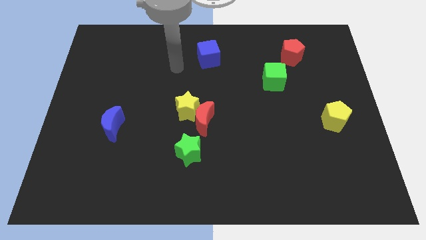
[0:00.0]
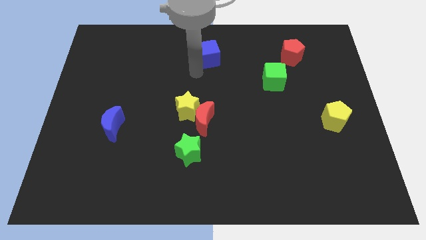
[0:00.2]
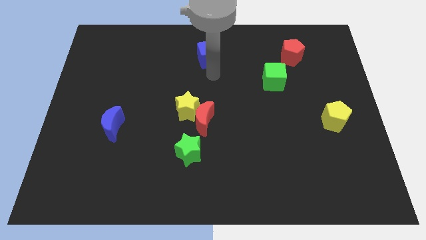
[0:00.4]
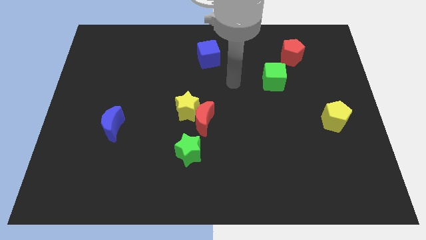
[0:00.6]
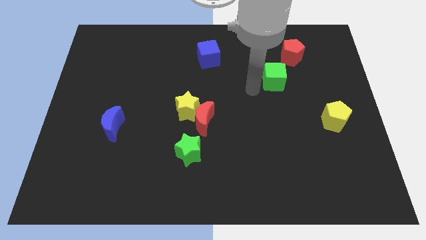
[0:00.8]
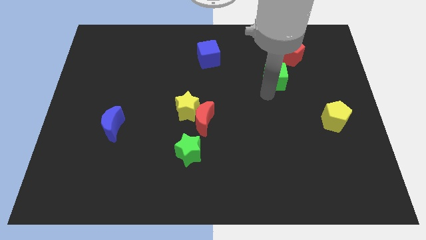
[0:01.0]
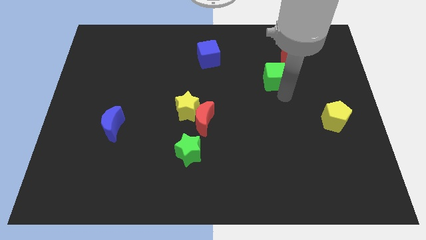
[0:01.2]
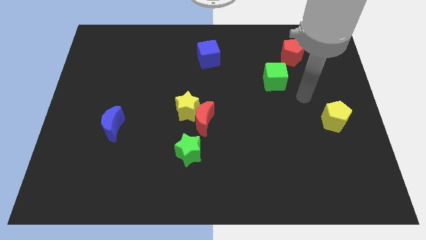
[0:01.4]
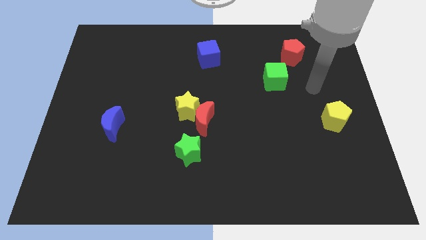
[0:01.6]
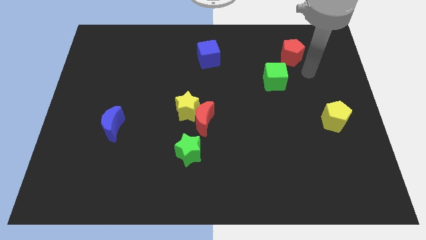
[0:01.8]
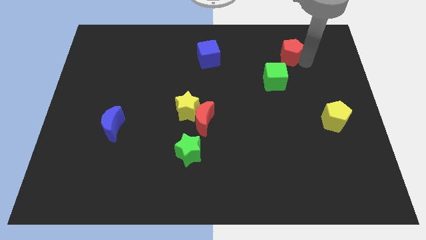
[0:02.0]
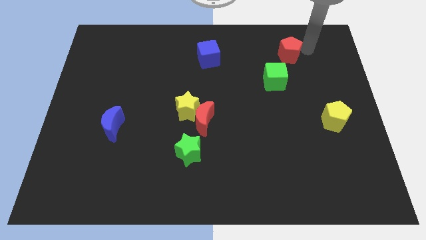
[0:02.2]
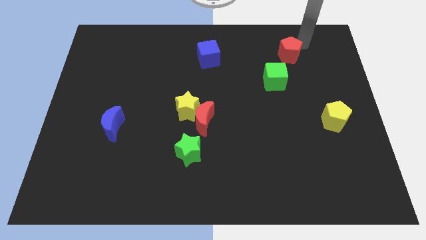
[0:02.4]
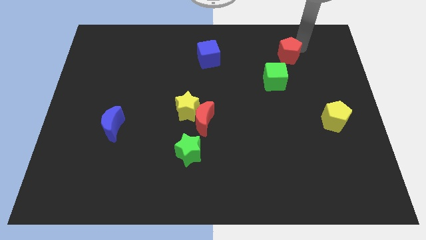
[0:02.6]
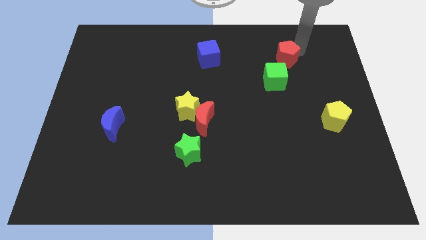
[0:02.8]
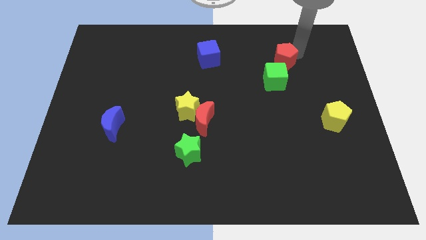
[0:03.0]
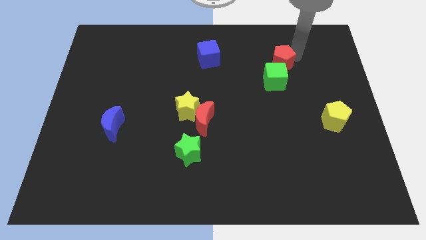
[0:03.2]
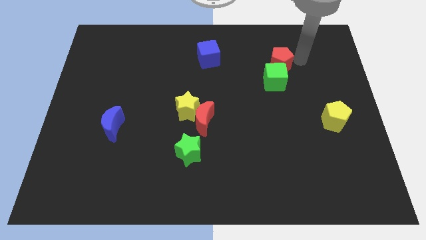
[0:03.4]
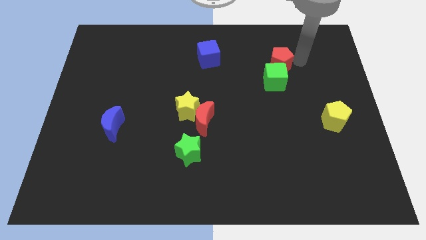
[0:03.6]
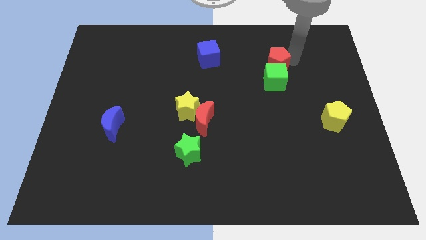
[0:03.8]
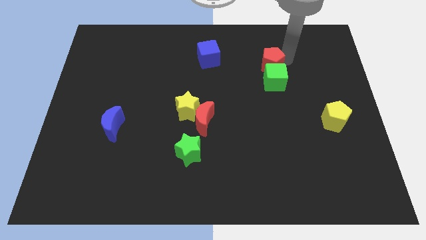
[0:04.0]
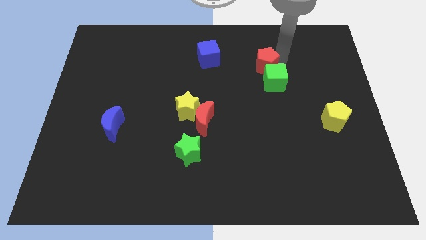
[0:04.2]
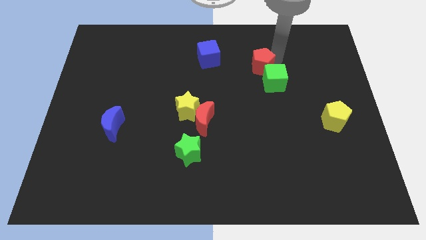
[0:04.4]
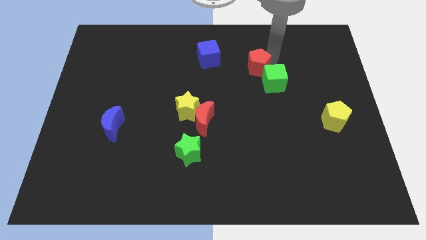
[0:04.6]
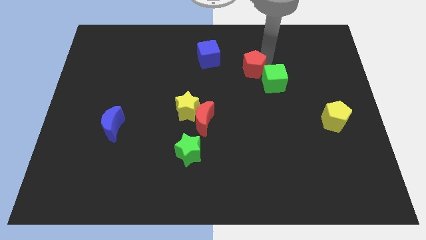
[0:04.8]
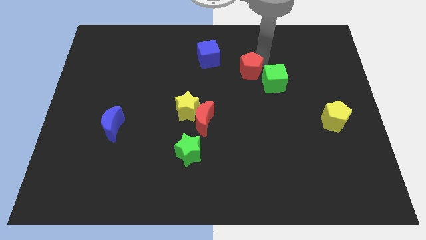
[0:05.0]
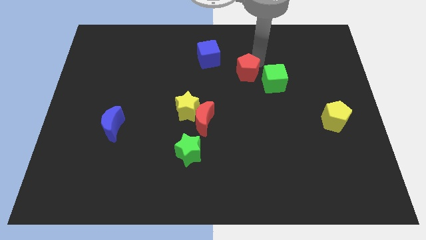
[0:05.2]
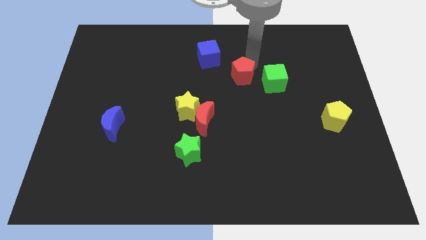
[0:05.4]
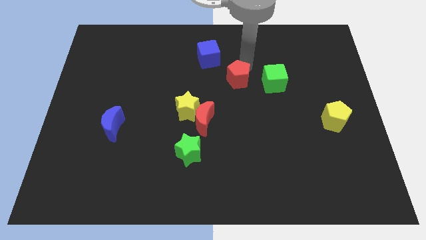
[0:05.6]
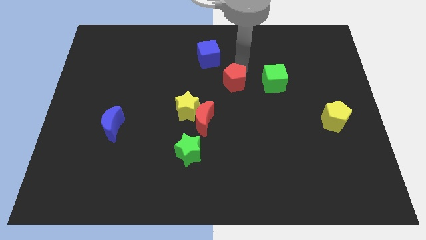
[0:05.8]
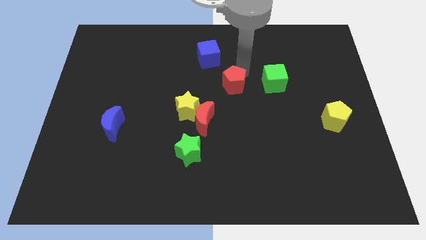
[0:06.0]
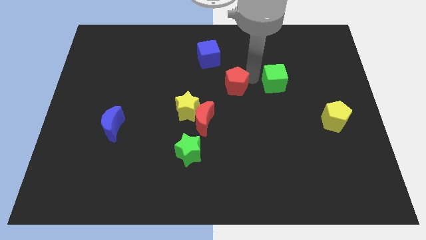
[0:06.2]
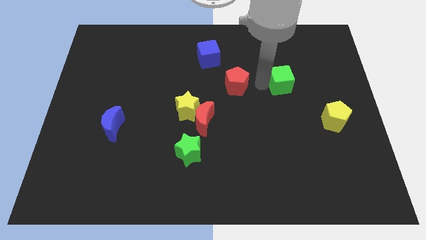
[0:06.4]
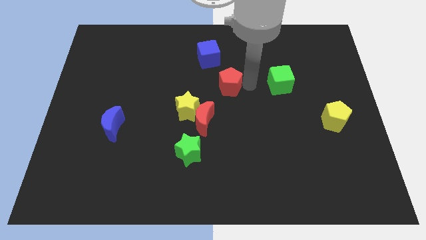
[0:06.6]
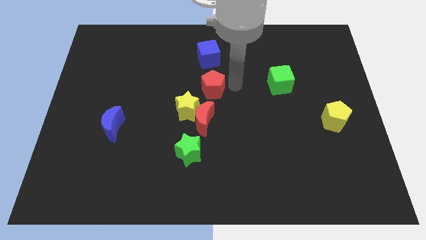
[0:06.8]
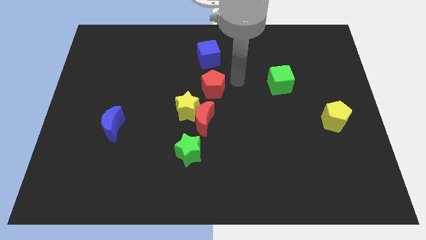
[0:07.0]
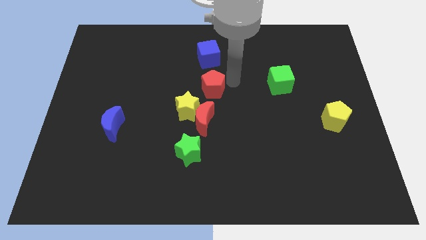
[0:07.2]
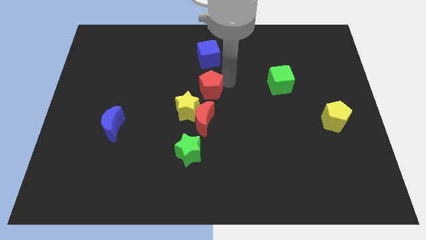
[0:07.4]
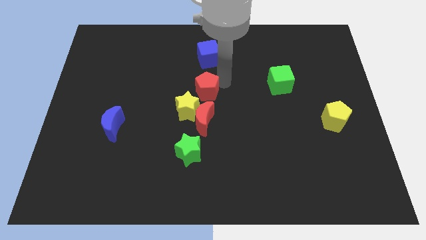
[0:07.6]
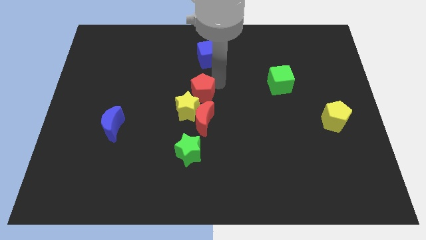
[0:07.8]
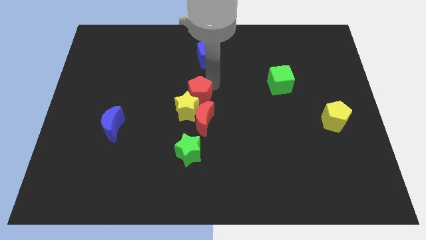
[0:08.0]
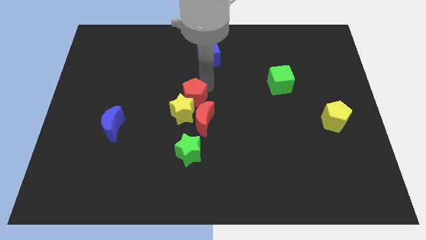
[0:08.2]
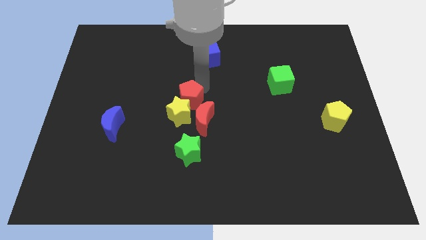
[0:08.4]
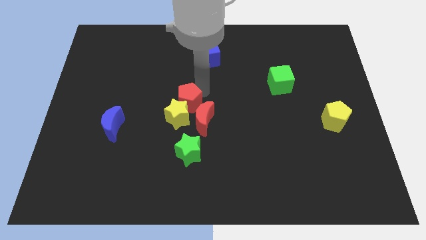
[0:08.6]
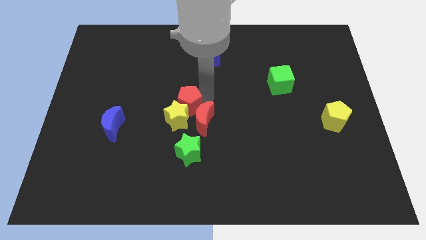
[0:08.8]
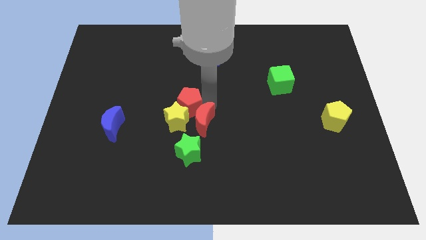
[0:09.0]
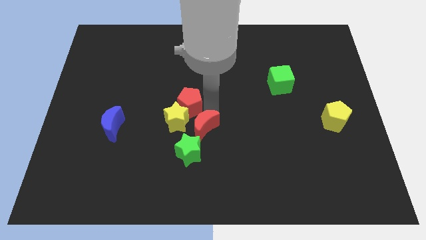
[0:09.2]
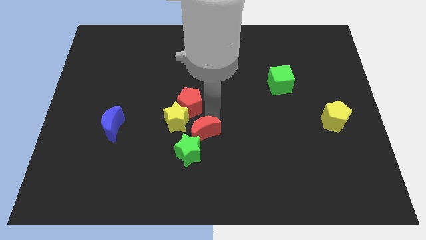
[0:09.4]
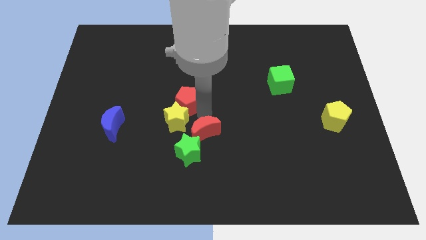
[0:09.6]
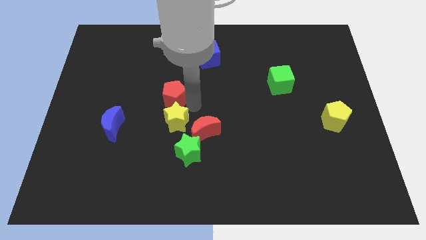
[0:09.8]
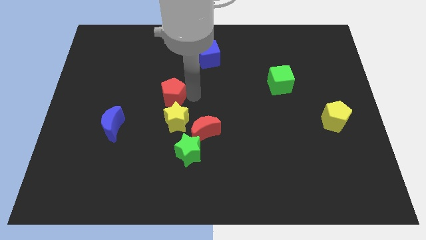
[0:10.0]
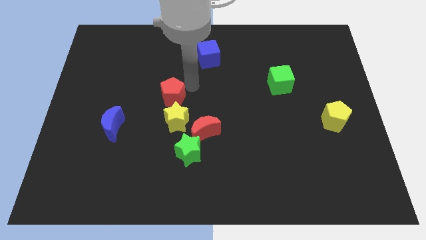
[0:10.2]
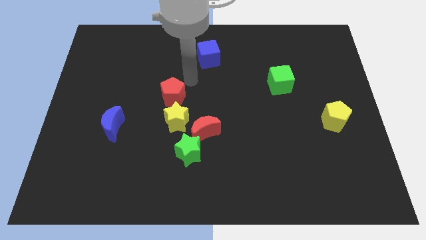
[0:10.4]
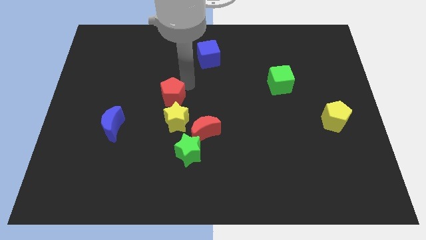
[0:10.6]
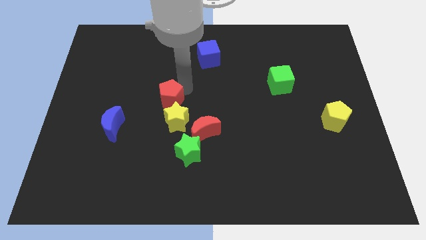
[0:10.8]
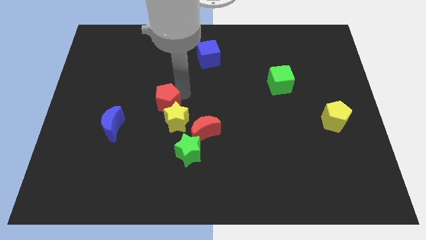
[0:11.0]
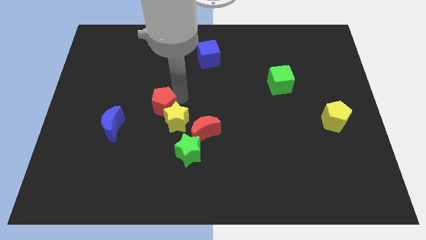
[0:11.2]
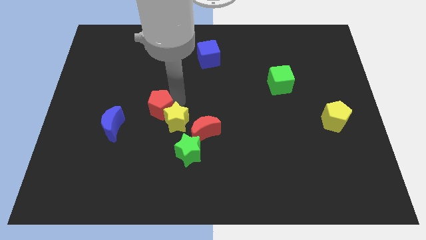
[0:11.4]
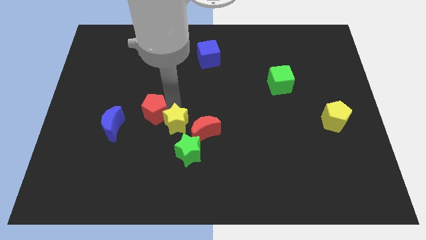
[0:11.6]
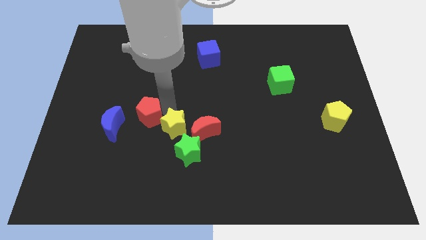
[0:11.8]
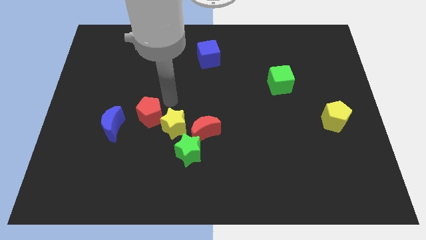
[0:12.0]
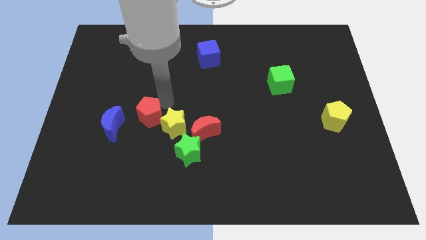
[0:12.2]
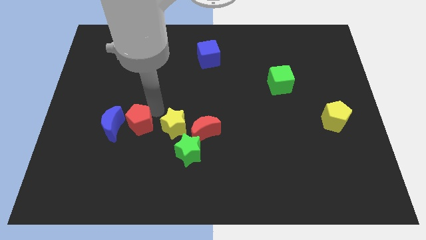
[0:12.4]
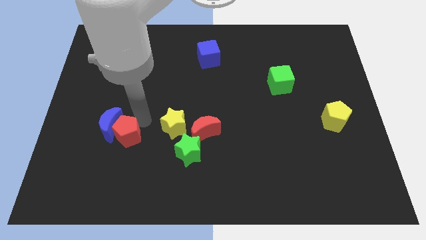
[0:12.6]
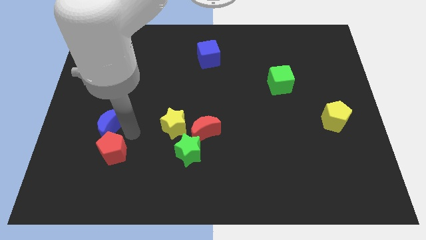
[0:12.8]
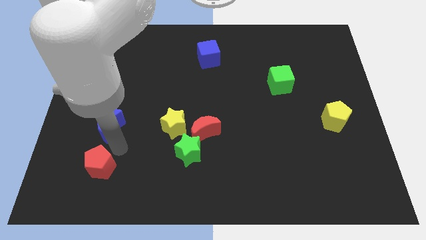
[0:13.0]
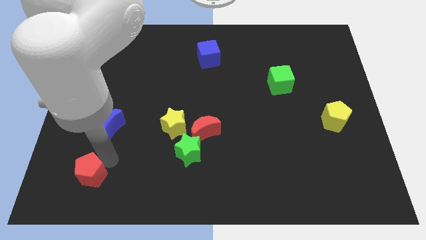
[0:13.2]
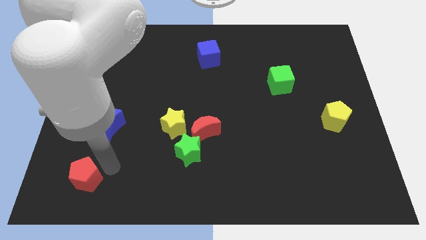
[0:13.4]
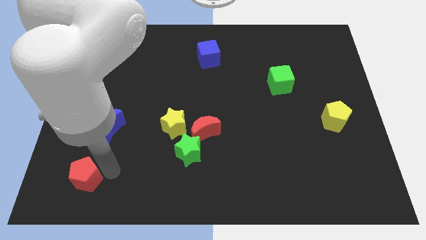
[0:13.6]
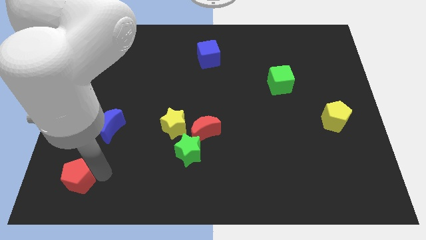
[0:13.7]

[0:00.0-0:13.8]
move the red pentagon to the bottom left of the board
